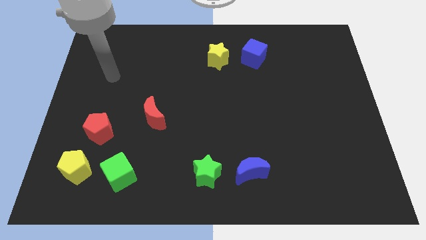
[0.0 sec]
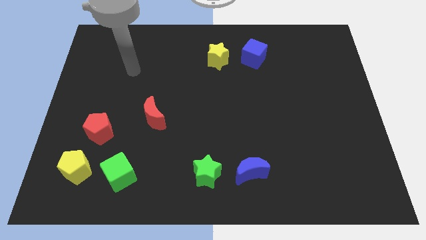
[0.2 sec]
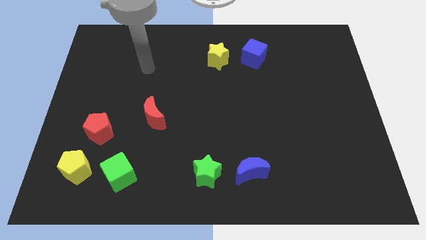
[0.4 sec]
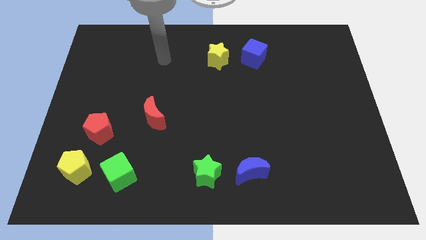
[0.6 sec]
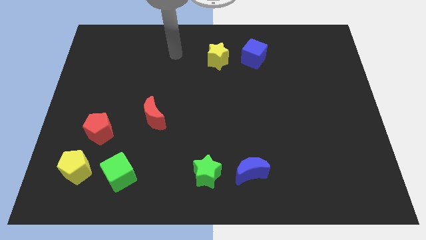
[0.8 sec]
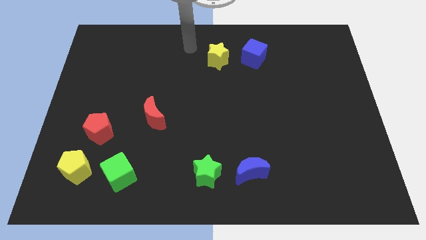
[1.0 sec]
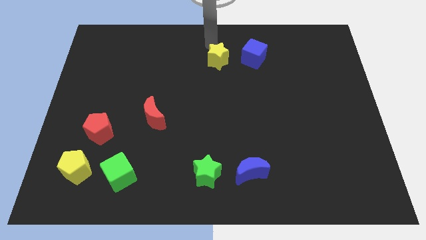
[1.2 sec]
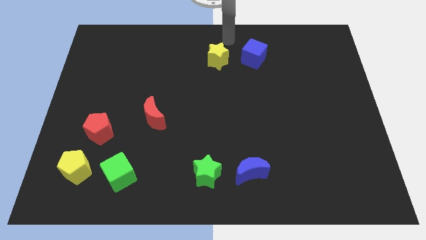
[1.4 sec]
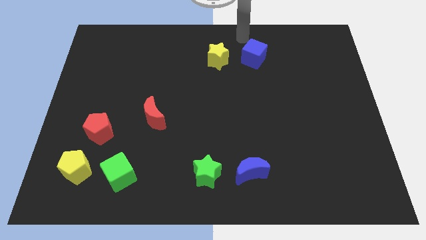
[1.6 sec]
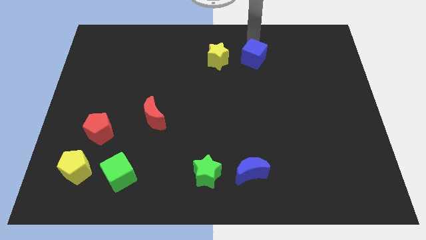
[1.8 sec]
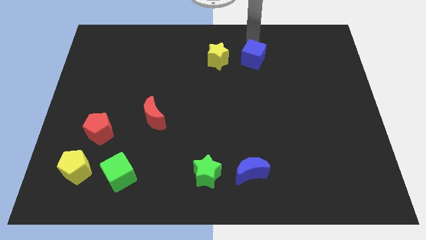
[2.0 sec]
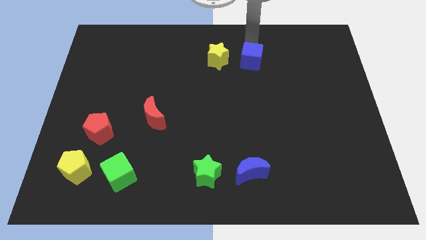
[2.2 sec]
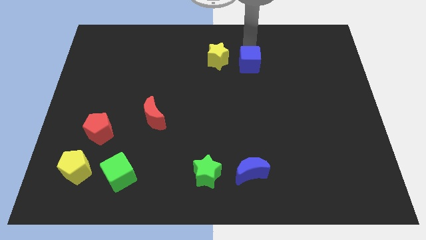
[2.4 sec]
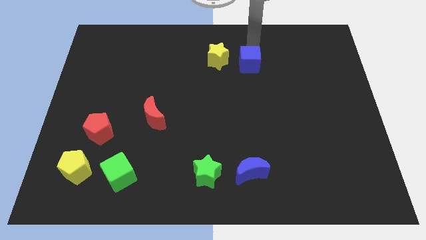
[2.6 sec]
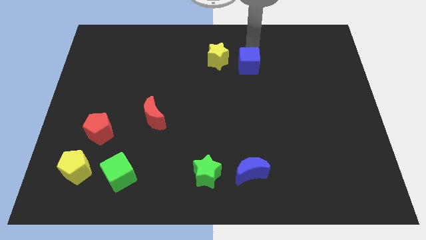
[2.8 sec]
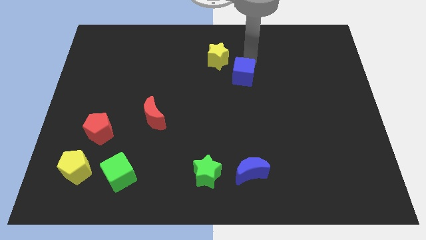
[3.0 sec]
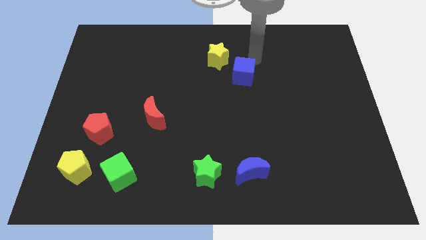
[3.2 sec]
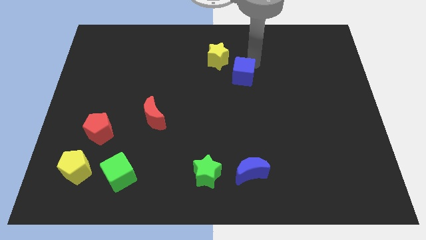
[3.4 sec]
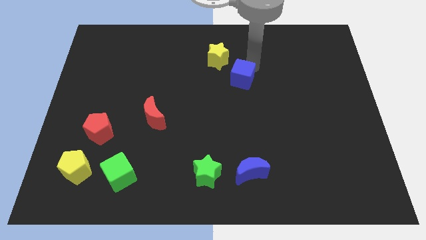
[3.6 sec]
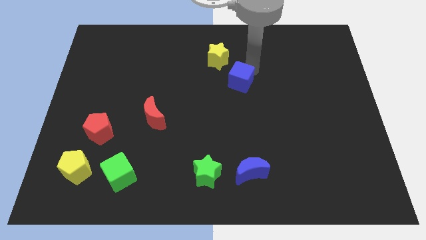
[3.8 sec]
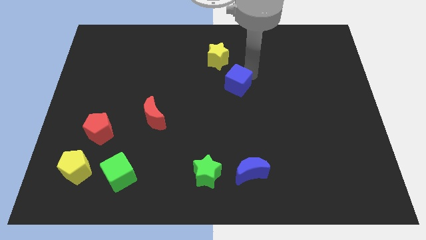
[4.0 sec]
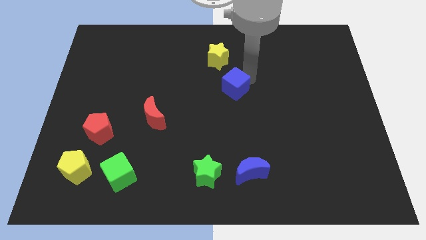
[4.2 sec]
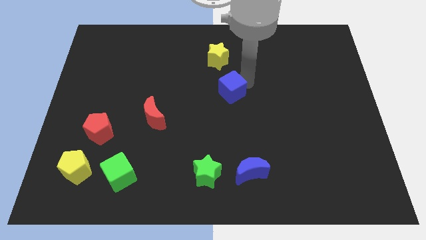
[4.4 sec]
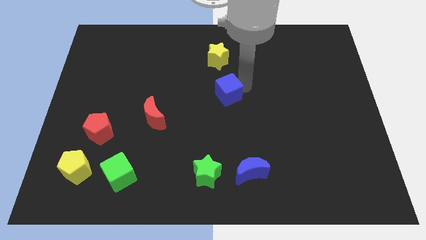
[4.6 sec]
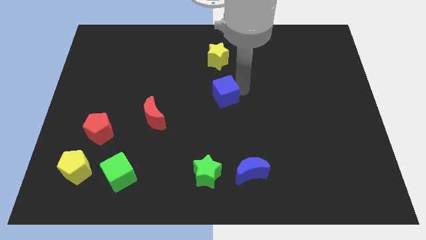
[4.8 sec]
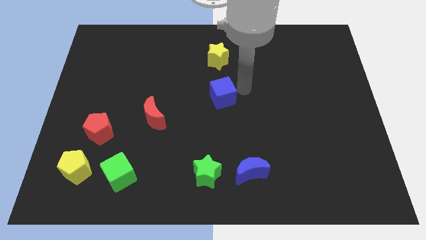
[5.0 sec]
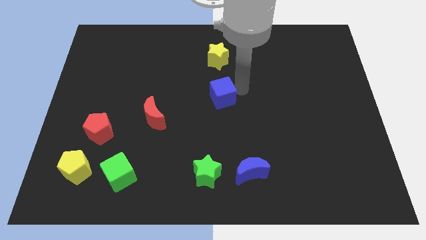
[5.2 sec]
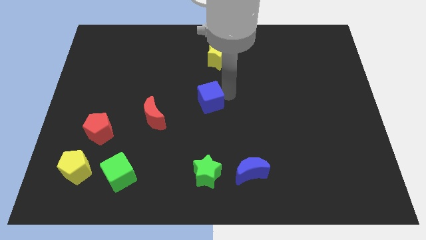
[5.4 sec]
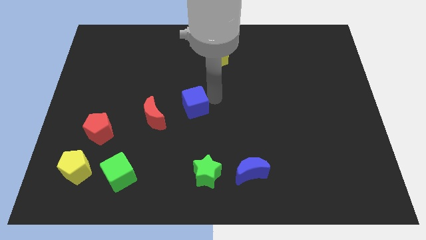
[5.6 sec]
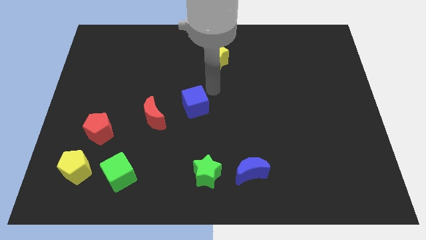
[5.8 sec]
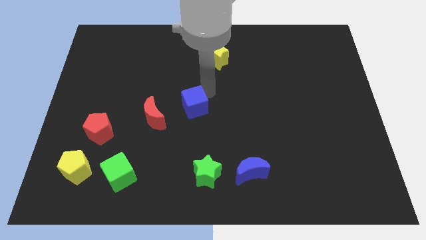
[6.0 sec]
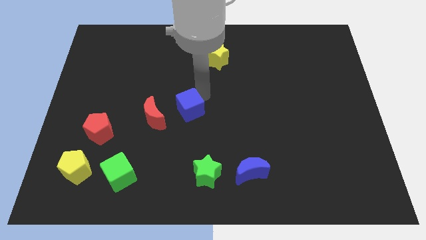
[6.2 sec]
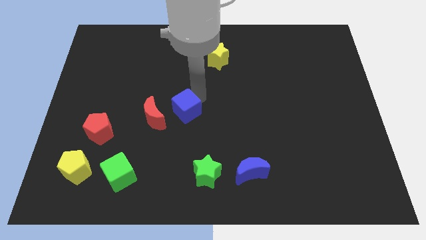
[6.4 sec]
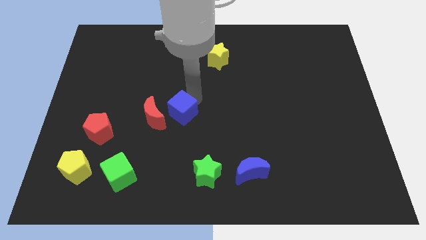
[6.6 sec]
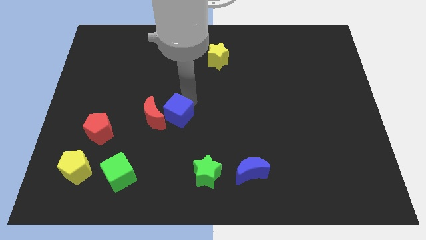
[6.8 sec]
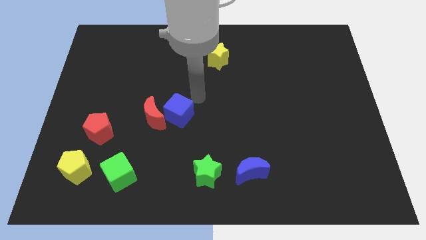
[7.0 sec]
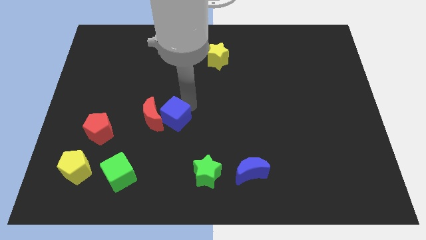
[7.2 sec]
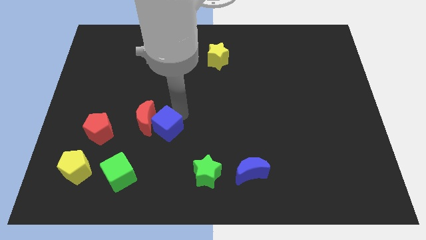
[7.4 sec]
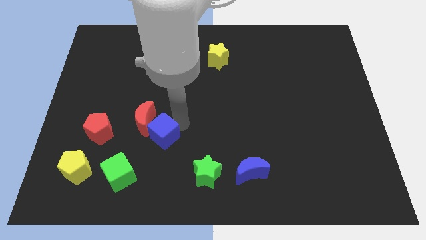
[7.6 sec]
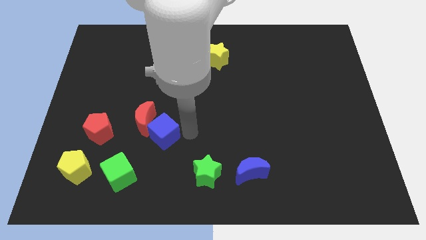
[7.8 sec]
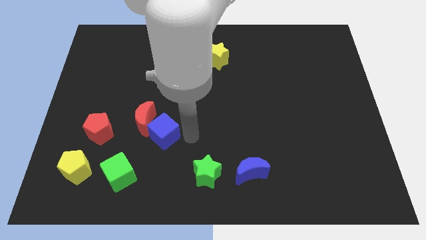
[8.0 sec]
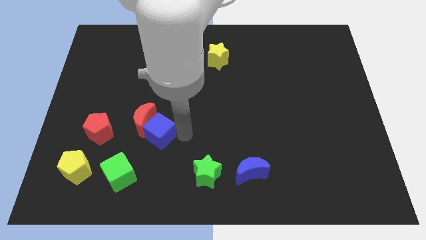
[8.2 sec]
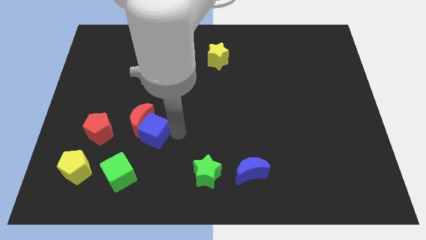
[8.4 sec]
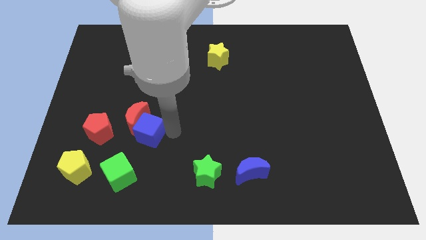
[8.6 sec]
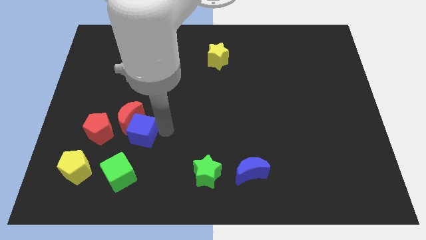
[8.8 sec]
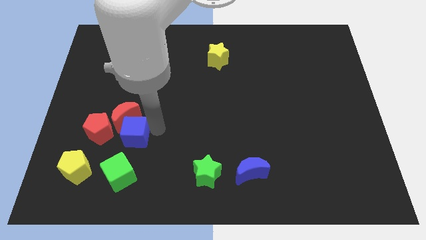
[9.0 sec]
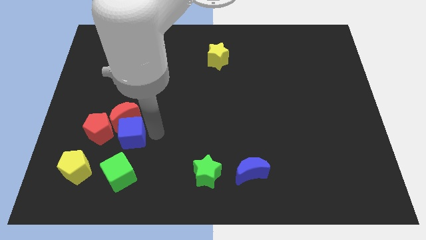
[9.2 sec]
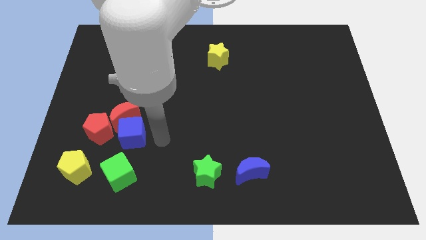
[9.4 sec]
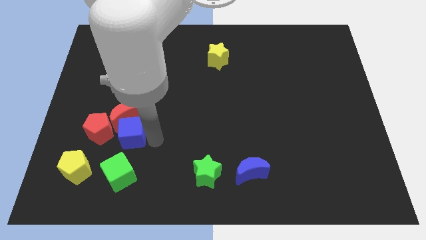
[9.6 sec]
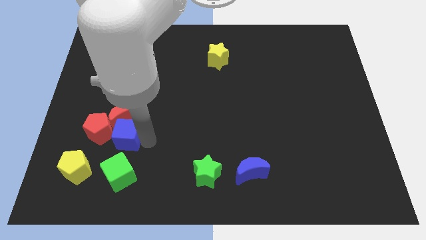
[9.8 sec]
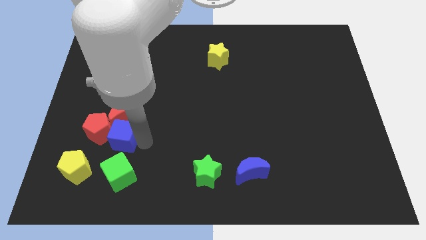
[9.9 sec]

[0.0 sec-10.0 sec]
move the blue cube towards the red pentagon

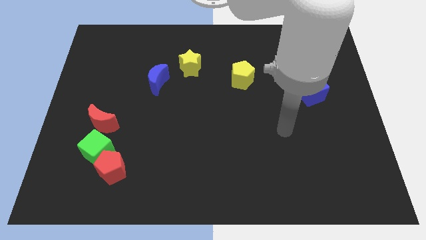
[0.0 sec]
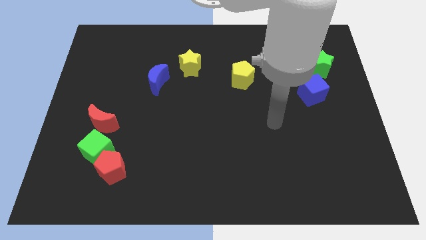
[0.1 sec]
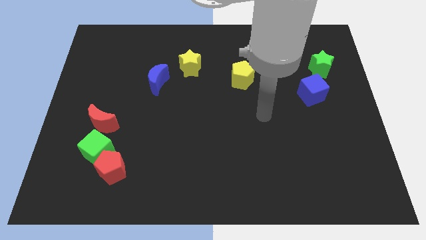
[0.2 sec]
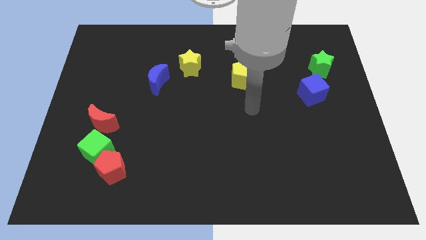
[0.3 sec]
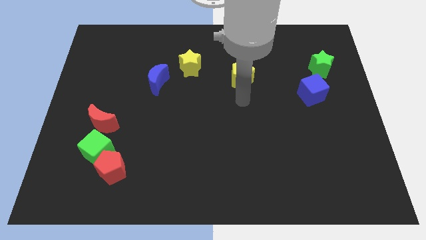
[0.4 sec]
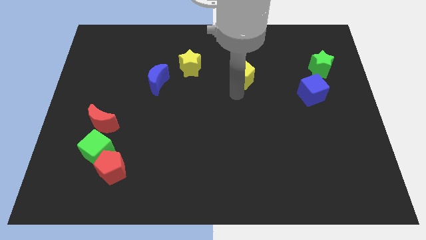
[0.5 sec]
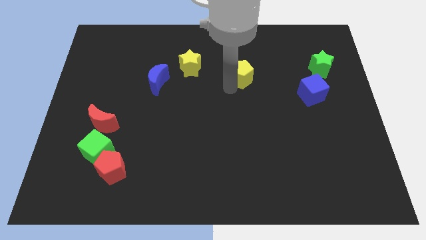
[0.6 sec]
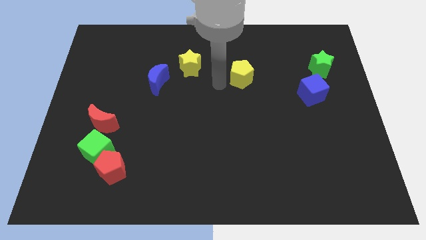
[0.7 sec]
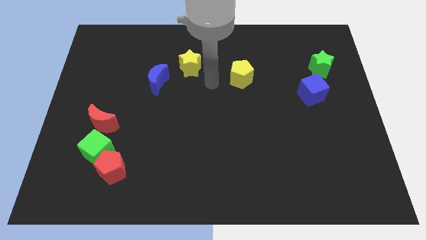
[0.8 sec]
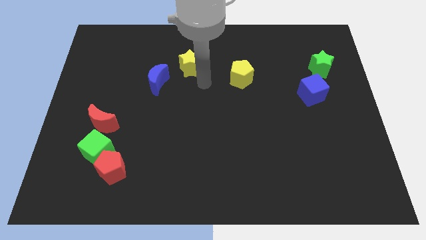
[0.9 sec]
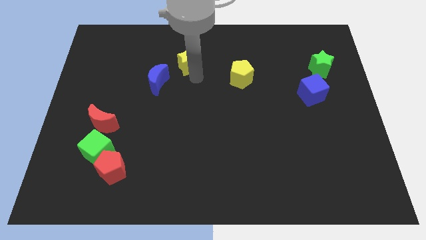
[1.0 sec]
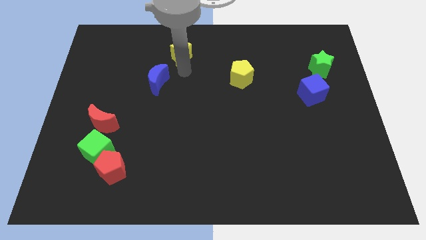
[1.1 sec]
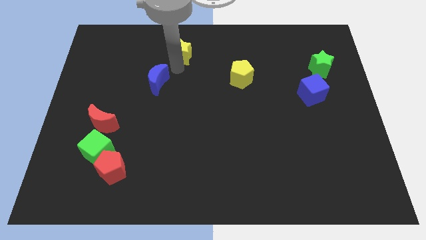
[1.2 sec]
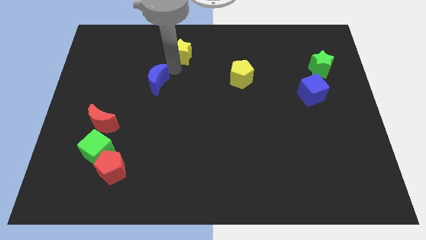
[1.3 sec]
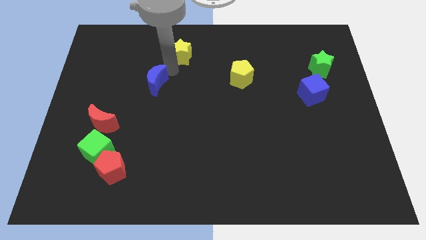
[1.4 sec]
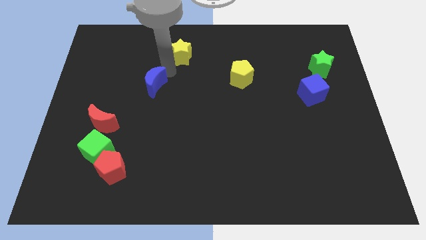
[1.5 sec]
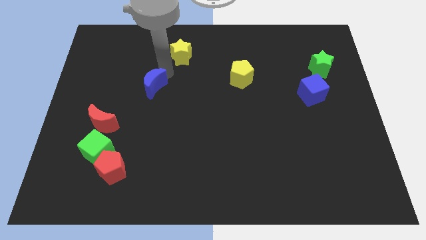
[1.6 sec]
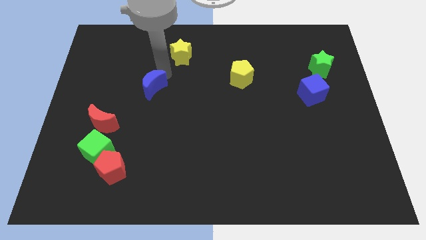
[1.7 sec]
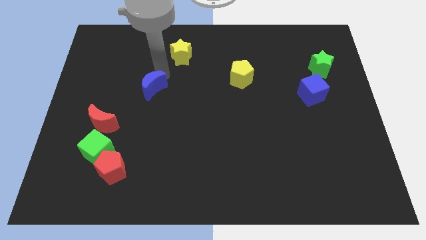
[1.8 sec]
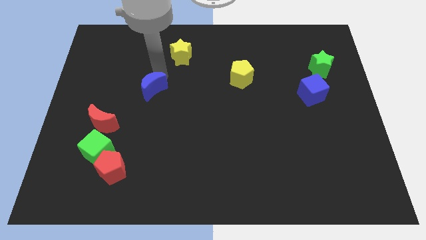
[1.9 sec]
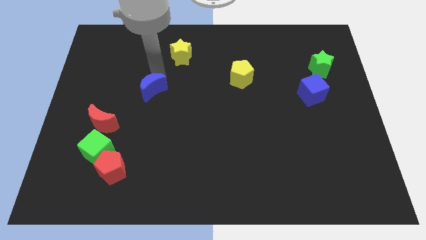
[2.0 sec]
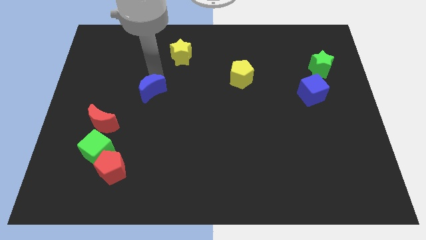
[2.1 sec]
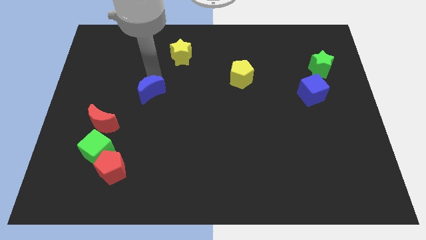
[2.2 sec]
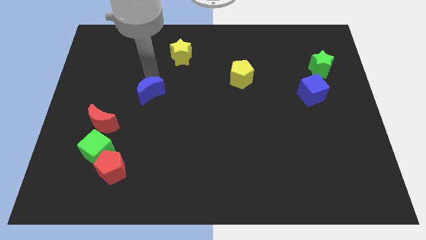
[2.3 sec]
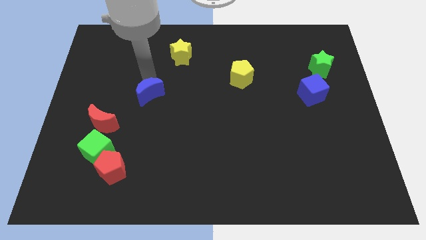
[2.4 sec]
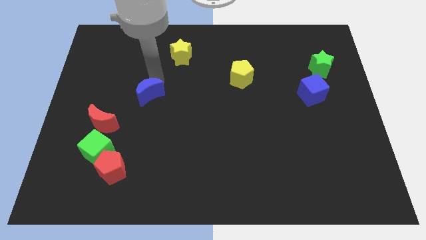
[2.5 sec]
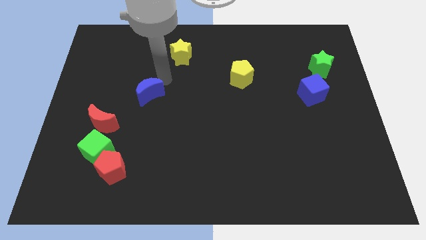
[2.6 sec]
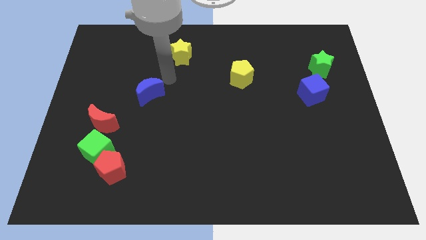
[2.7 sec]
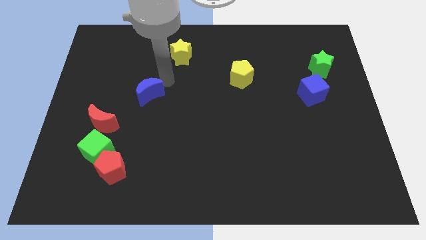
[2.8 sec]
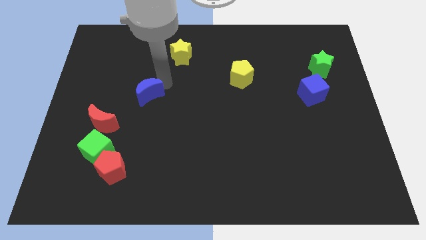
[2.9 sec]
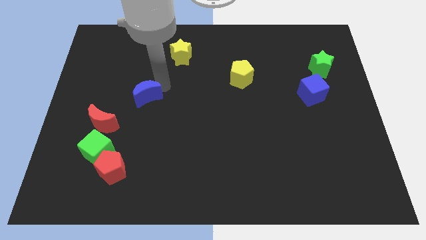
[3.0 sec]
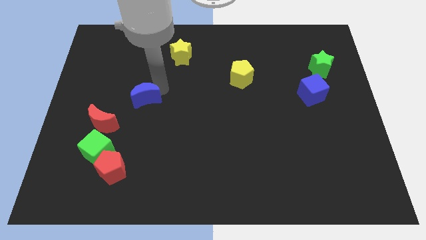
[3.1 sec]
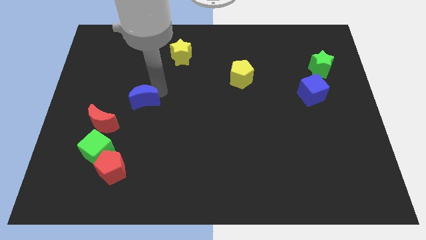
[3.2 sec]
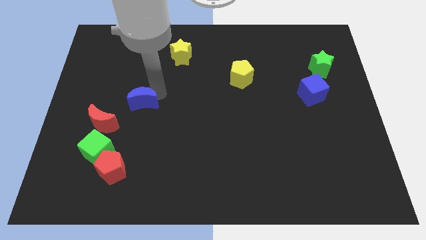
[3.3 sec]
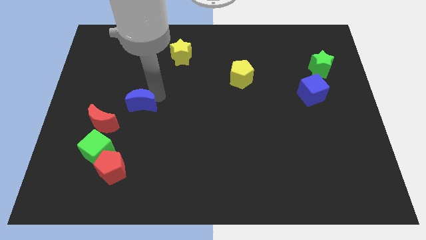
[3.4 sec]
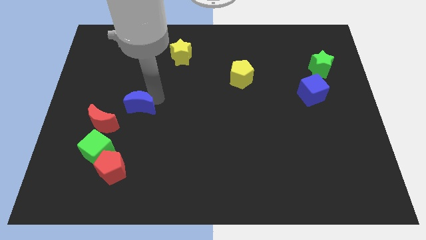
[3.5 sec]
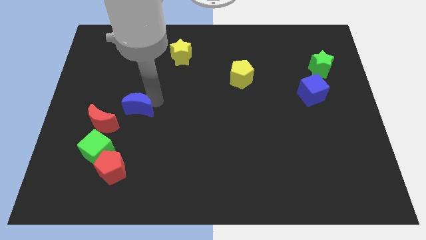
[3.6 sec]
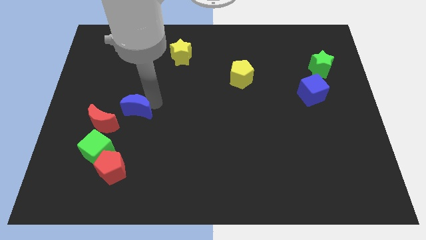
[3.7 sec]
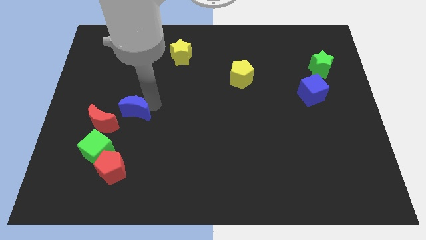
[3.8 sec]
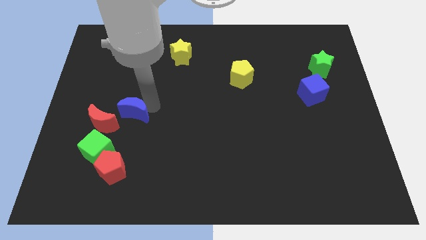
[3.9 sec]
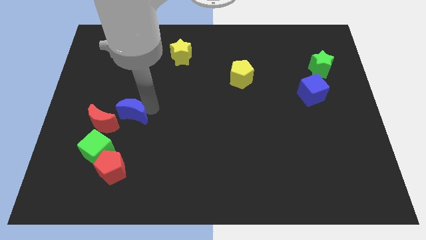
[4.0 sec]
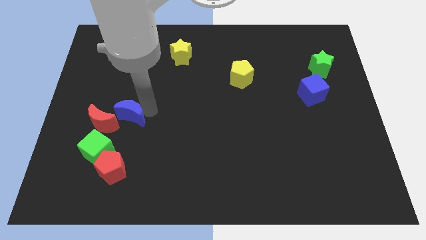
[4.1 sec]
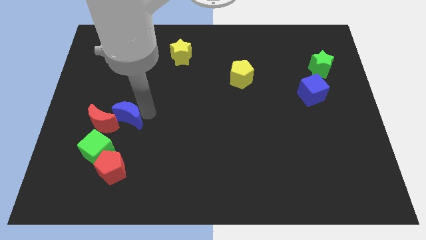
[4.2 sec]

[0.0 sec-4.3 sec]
move the blue moon to the red moon
